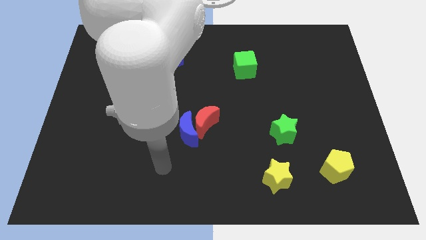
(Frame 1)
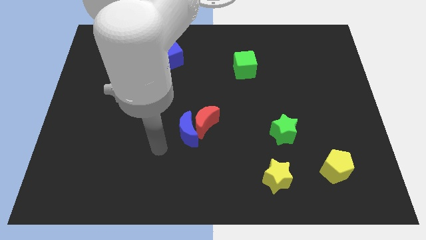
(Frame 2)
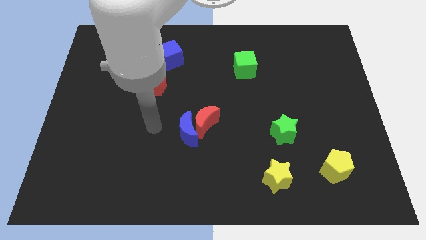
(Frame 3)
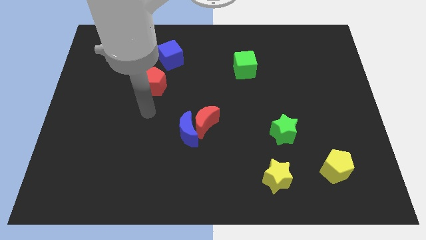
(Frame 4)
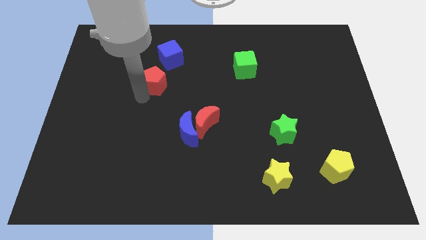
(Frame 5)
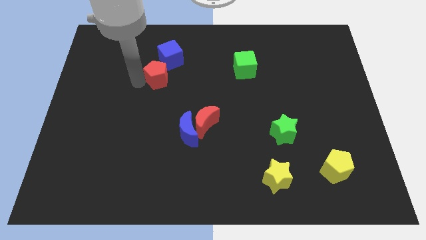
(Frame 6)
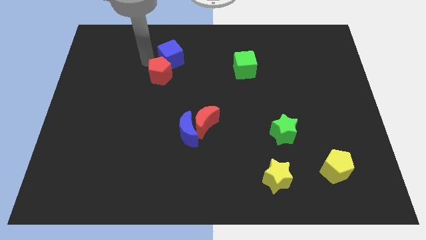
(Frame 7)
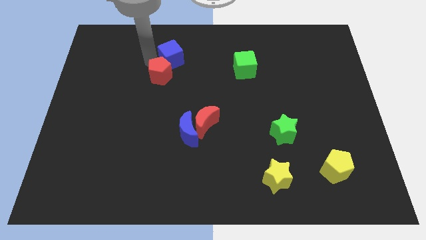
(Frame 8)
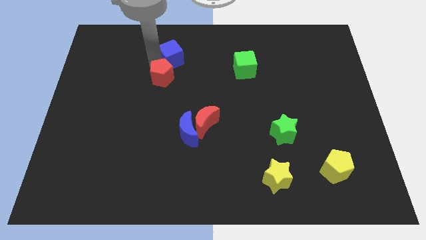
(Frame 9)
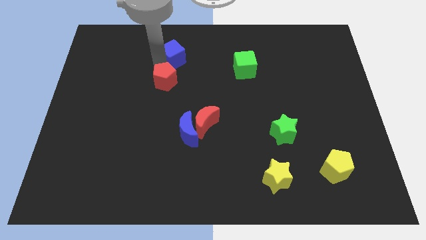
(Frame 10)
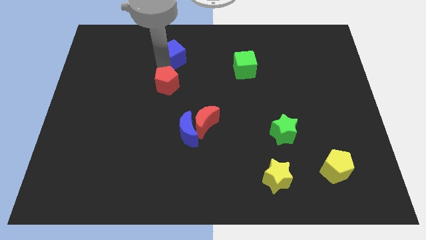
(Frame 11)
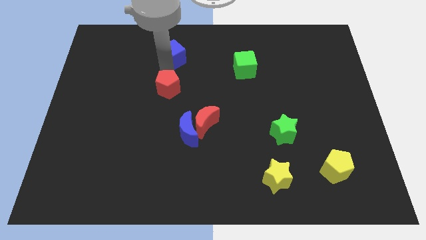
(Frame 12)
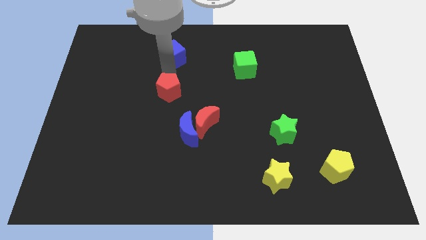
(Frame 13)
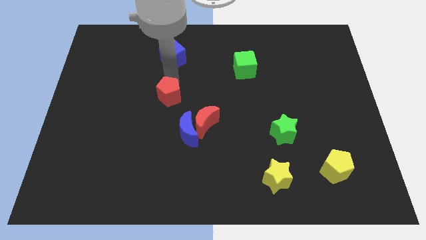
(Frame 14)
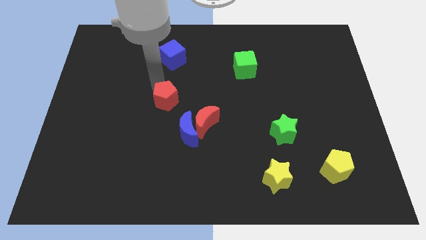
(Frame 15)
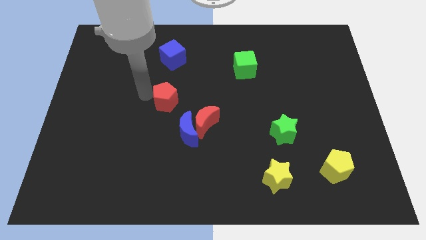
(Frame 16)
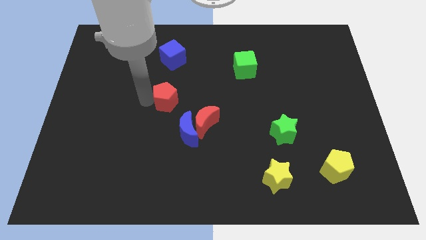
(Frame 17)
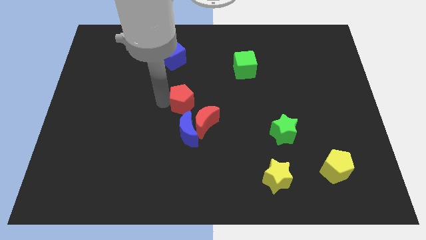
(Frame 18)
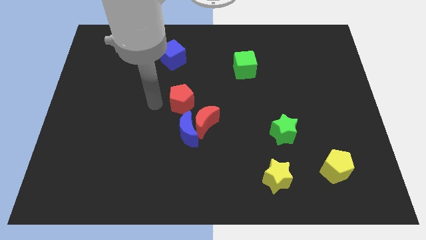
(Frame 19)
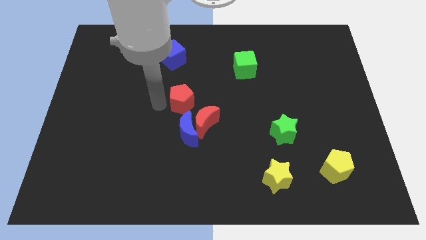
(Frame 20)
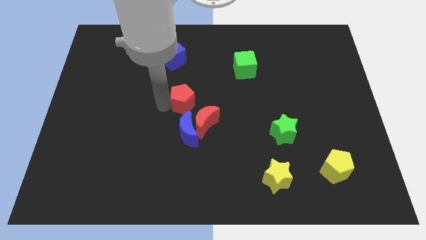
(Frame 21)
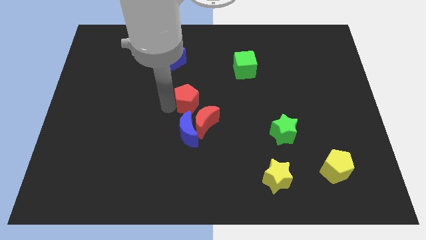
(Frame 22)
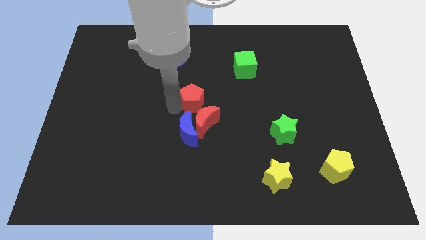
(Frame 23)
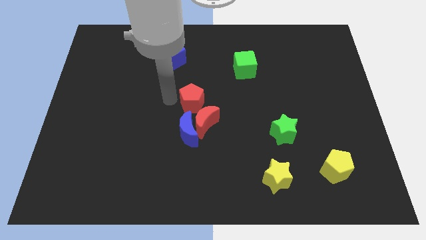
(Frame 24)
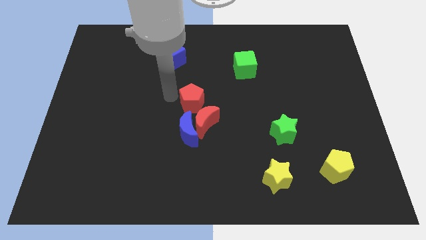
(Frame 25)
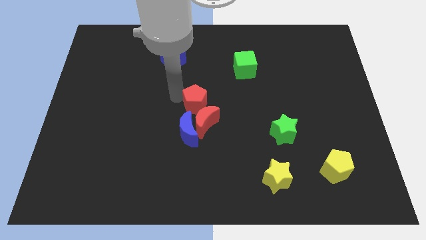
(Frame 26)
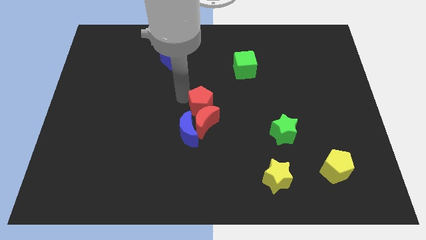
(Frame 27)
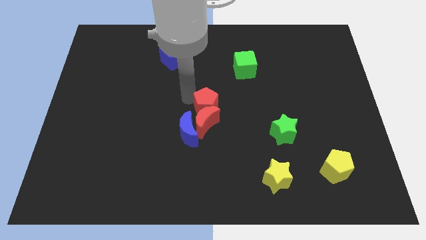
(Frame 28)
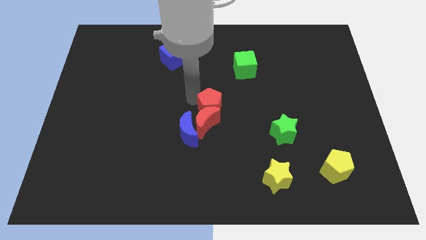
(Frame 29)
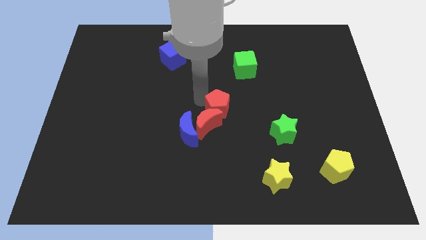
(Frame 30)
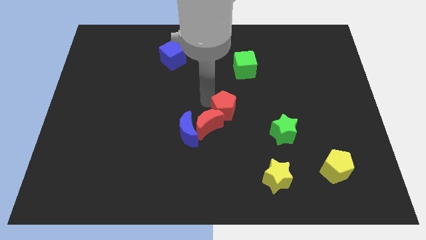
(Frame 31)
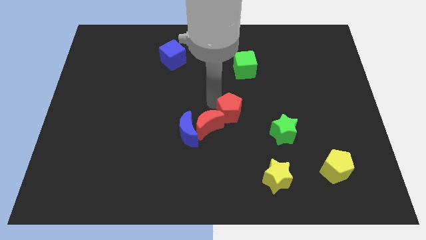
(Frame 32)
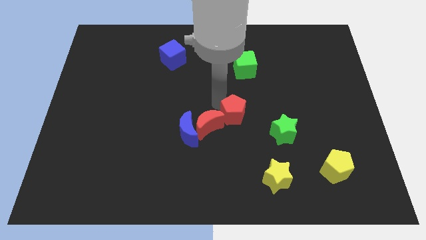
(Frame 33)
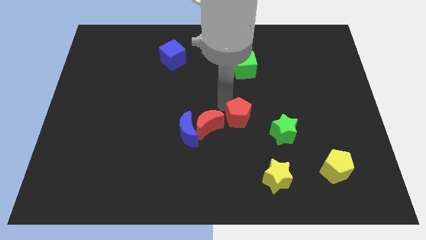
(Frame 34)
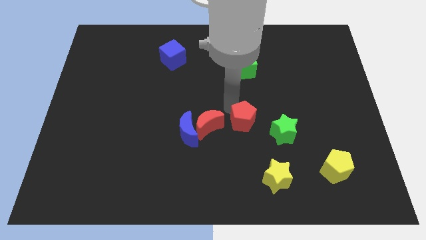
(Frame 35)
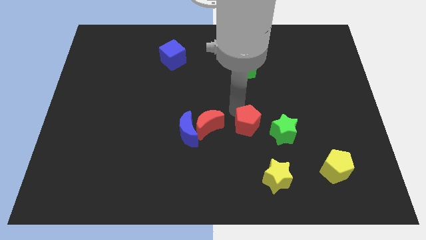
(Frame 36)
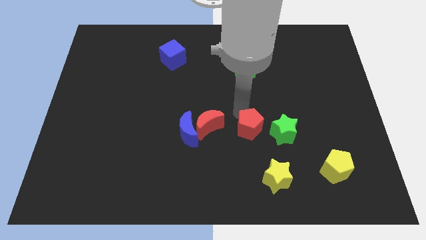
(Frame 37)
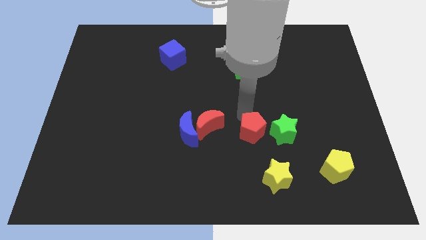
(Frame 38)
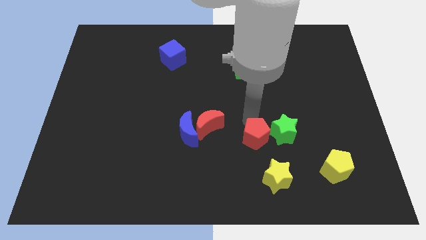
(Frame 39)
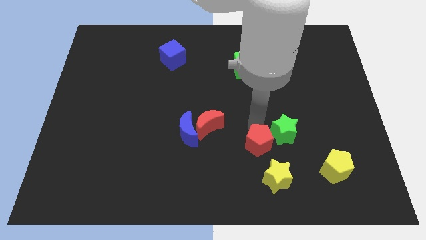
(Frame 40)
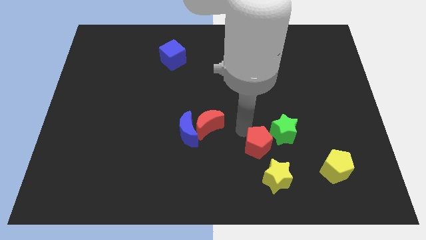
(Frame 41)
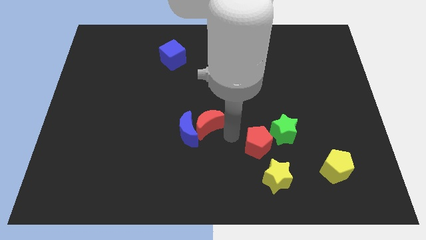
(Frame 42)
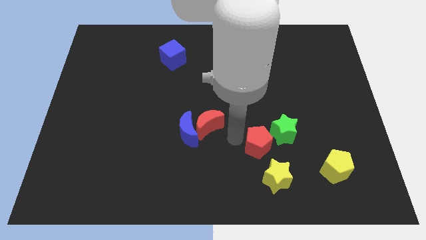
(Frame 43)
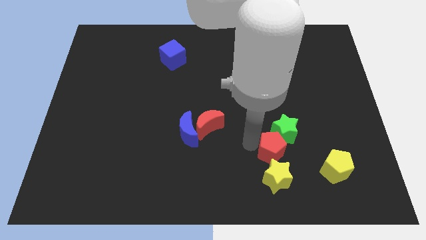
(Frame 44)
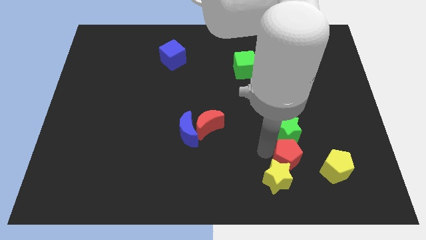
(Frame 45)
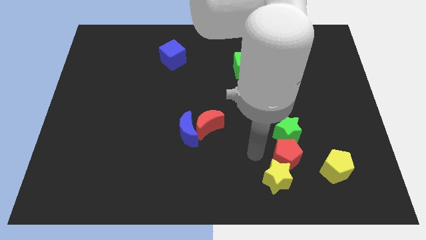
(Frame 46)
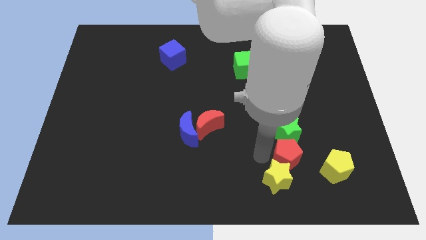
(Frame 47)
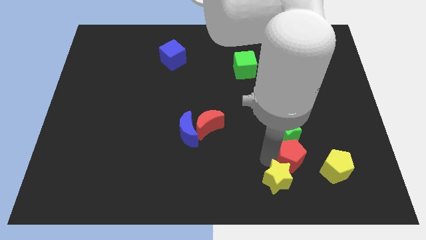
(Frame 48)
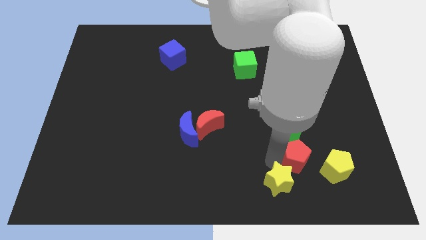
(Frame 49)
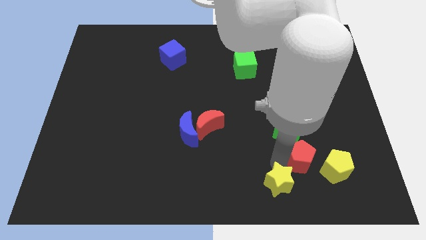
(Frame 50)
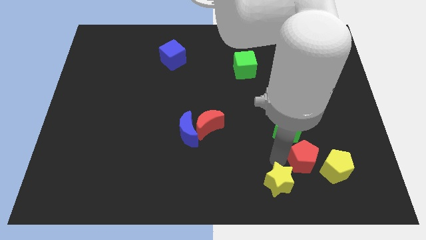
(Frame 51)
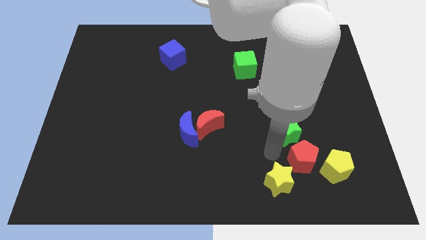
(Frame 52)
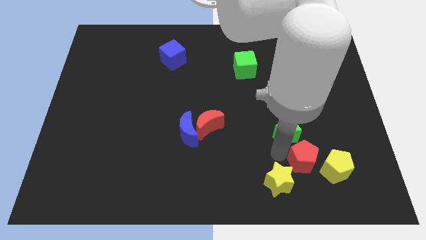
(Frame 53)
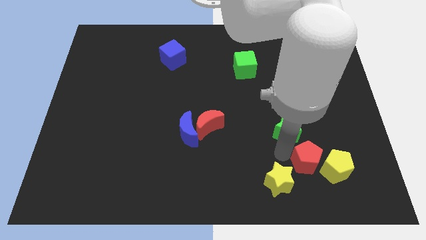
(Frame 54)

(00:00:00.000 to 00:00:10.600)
slide the red pentagon to the yellow pentagon

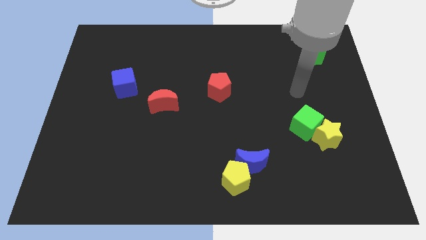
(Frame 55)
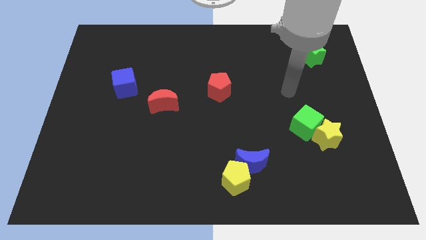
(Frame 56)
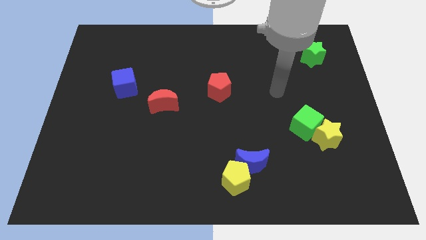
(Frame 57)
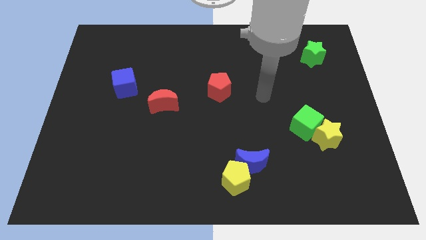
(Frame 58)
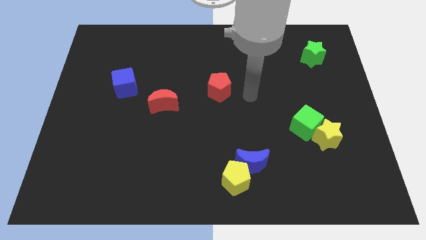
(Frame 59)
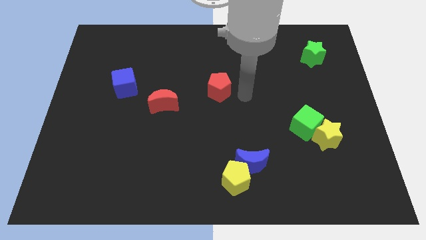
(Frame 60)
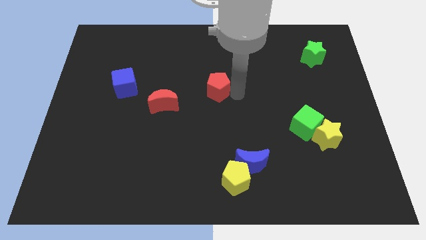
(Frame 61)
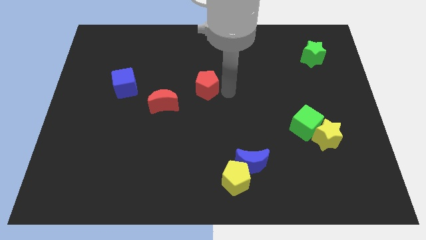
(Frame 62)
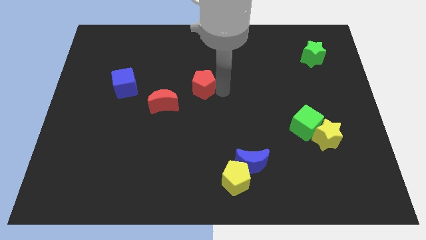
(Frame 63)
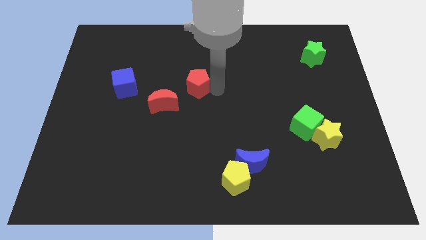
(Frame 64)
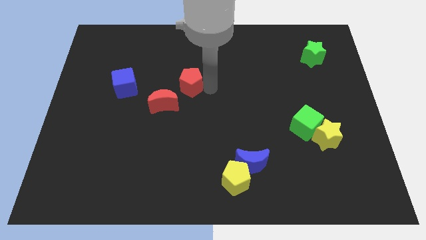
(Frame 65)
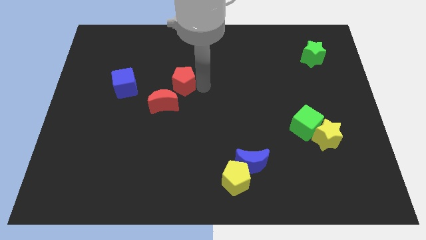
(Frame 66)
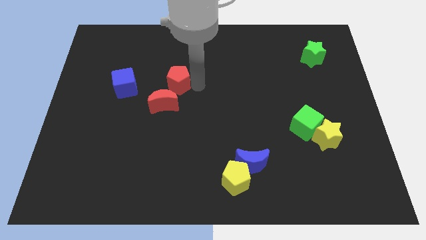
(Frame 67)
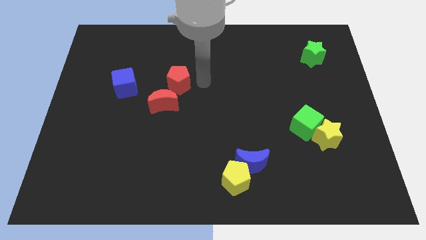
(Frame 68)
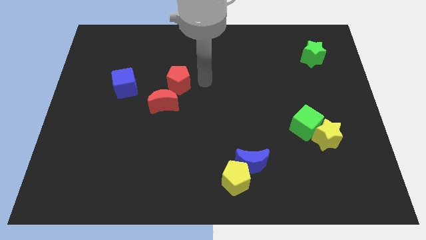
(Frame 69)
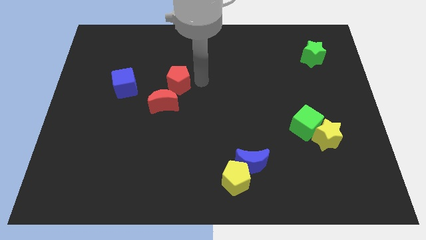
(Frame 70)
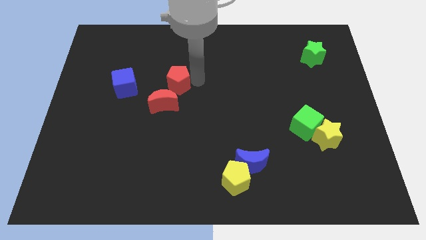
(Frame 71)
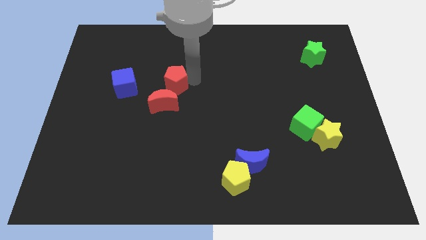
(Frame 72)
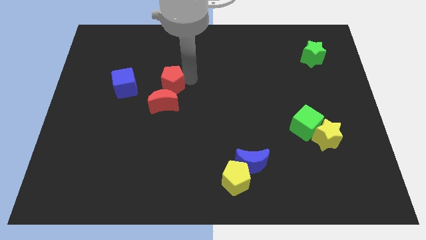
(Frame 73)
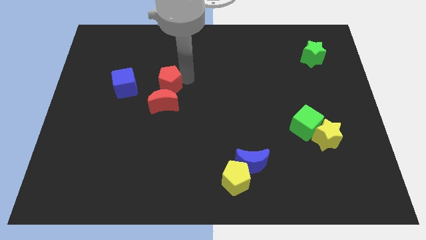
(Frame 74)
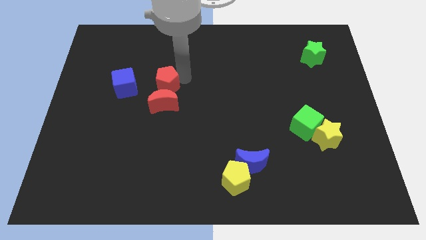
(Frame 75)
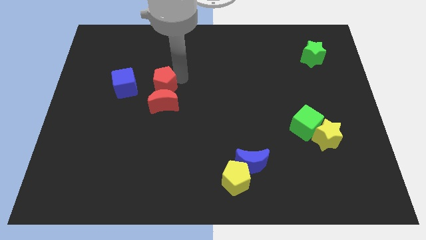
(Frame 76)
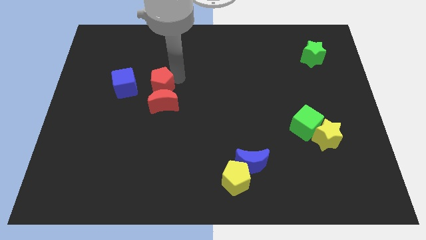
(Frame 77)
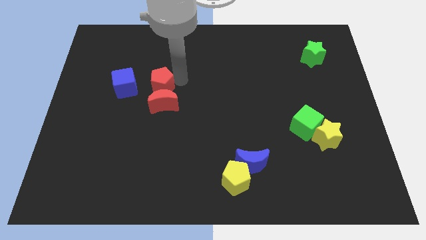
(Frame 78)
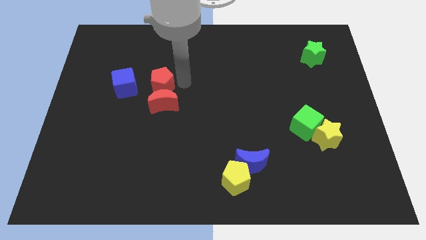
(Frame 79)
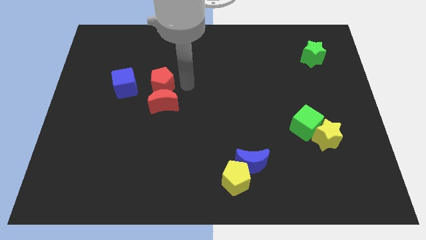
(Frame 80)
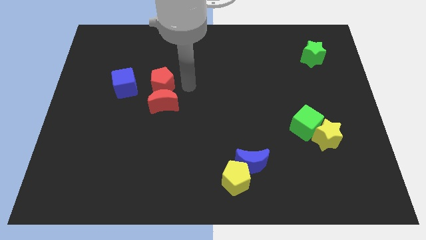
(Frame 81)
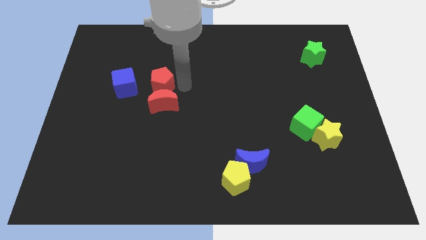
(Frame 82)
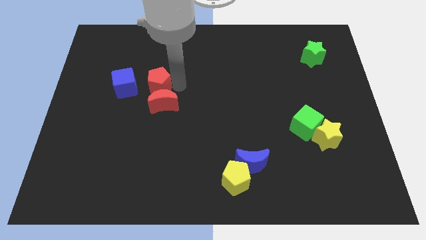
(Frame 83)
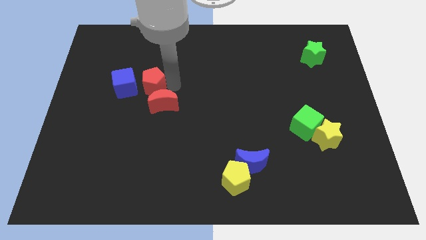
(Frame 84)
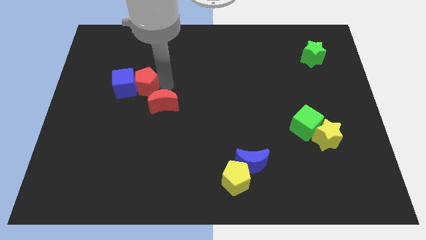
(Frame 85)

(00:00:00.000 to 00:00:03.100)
put the red pentagon close to the blue cube
